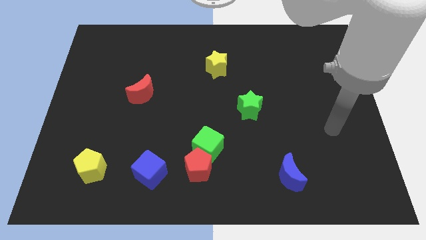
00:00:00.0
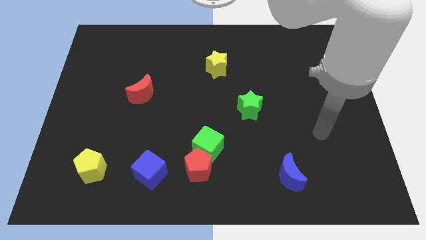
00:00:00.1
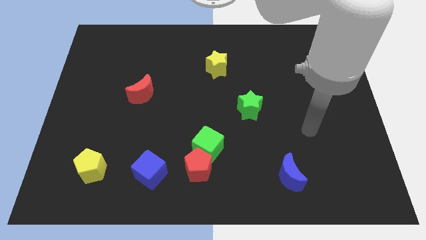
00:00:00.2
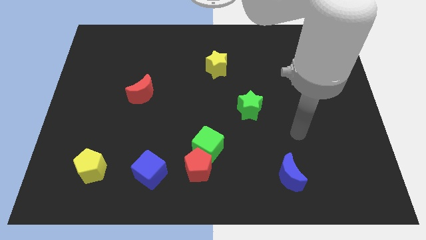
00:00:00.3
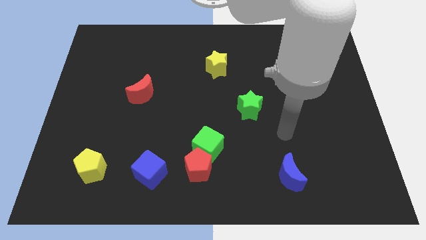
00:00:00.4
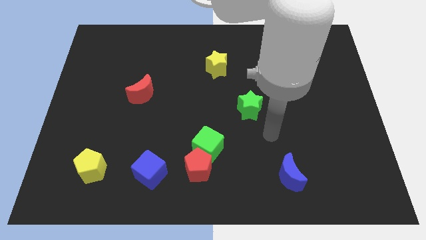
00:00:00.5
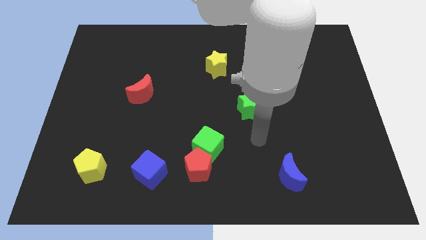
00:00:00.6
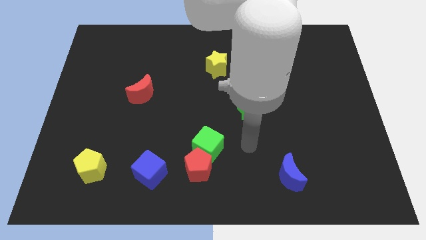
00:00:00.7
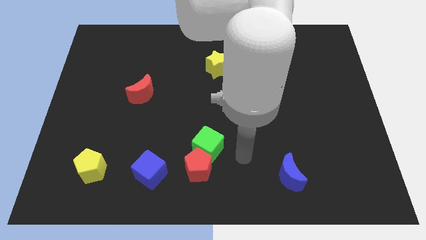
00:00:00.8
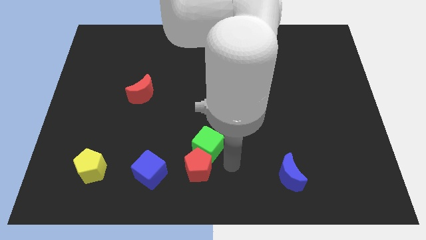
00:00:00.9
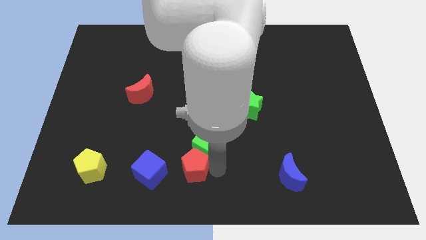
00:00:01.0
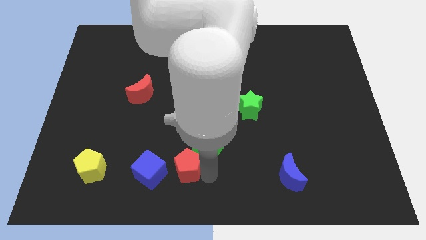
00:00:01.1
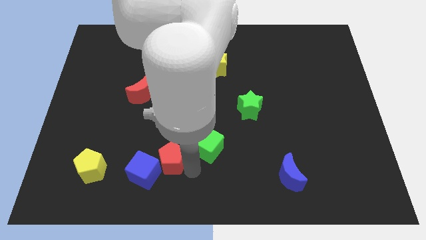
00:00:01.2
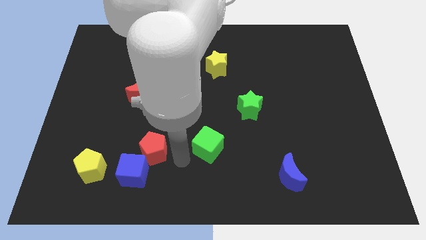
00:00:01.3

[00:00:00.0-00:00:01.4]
pull the green cube apart from the red pentagon

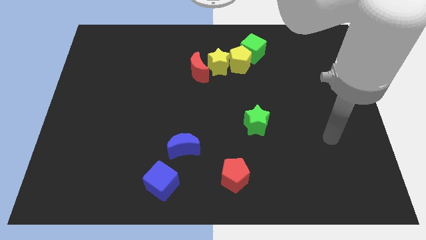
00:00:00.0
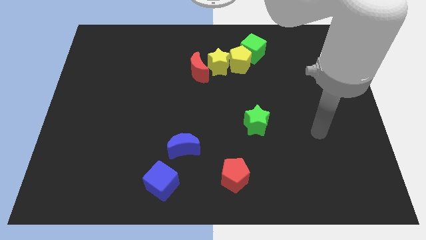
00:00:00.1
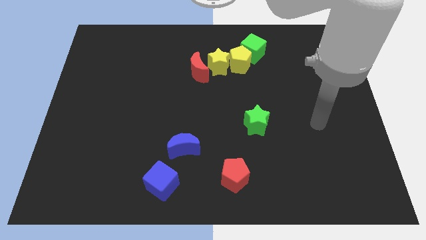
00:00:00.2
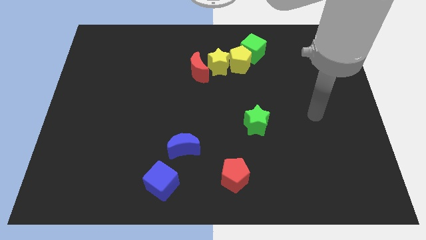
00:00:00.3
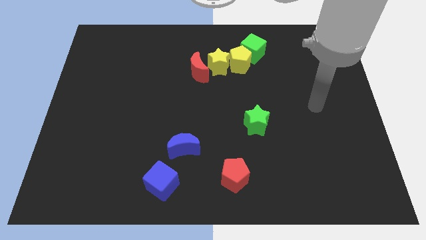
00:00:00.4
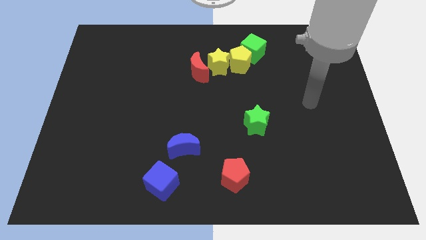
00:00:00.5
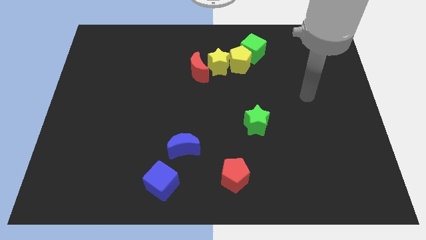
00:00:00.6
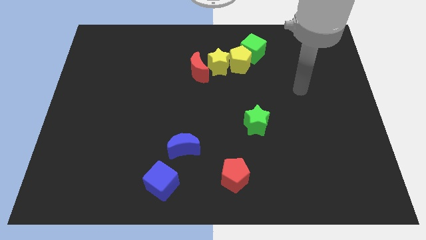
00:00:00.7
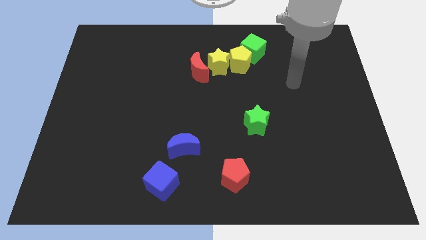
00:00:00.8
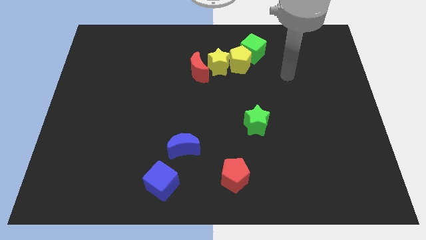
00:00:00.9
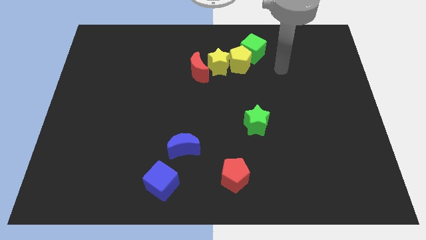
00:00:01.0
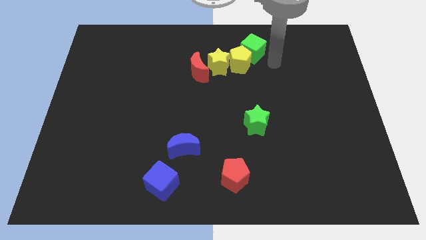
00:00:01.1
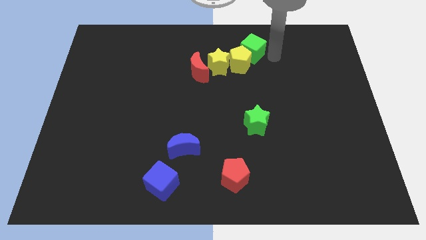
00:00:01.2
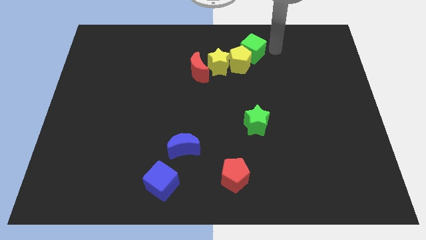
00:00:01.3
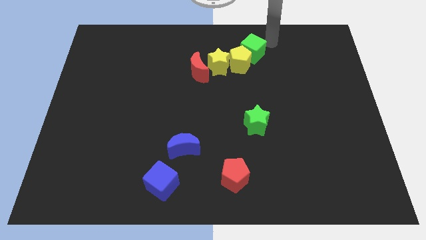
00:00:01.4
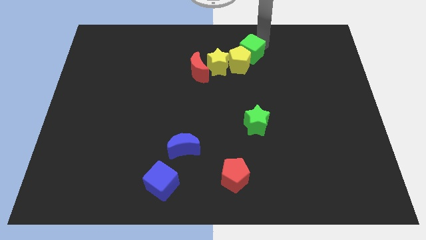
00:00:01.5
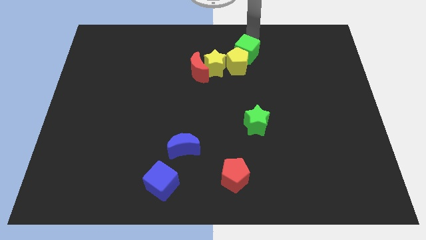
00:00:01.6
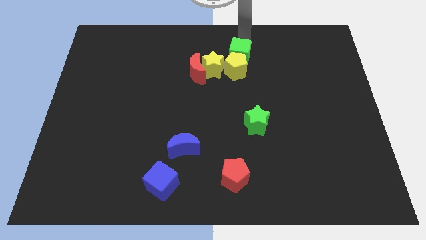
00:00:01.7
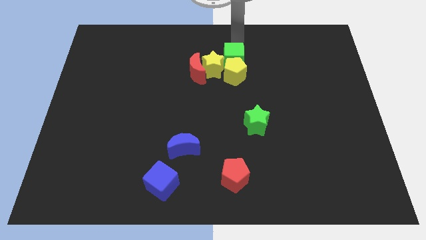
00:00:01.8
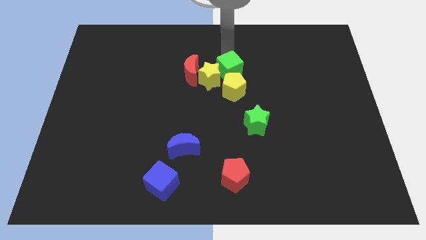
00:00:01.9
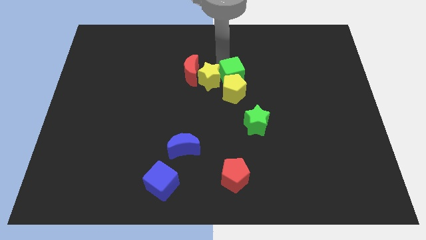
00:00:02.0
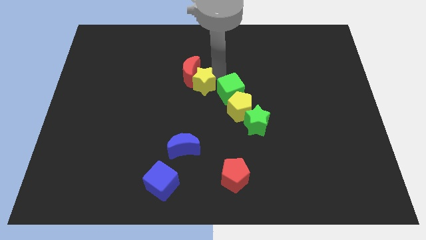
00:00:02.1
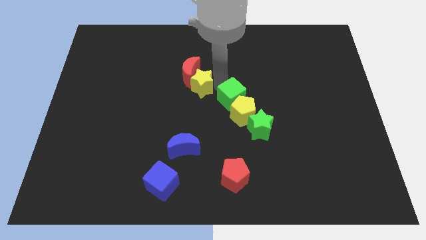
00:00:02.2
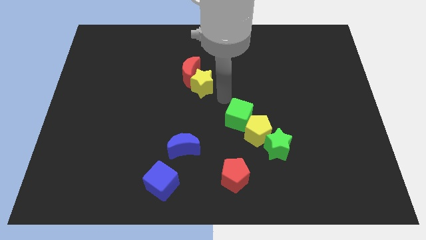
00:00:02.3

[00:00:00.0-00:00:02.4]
pull the yellow pentagon apart from the yellow star and green cube

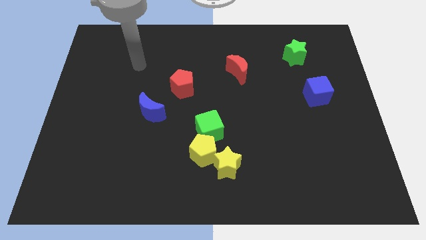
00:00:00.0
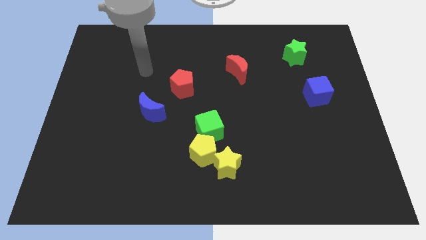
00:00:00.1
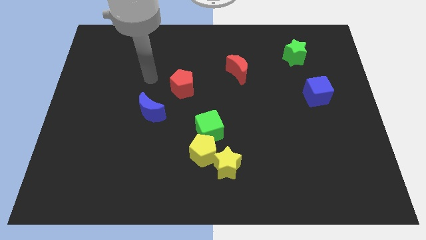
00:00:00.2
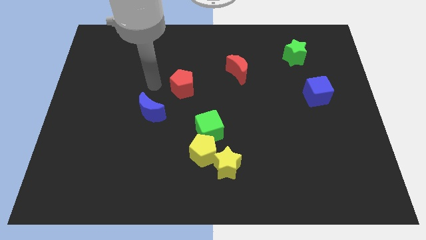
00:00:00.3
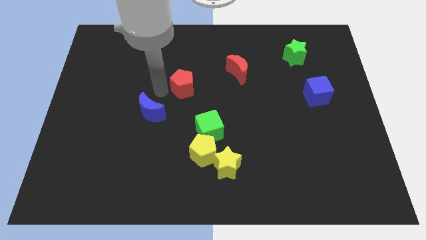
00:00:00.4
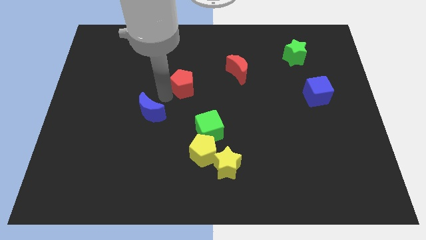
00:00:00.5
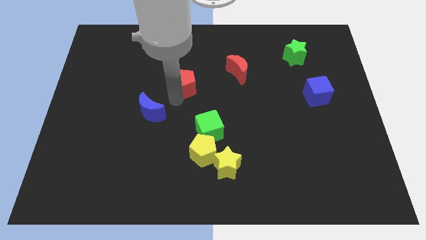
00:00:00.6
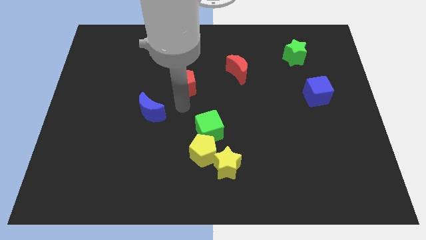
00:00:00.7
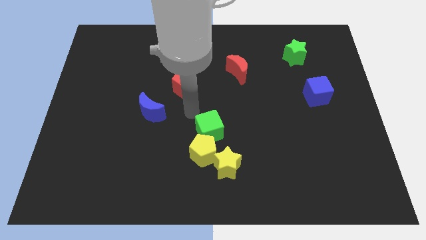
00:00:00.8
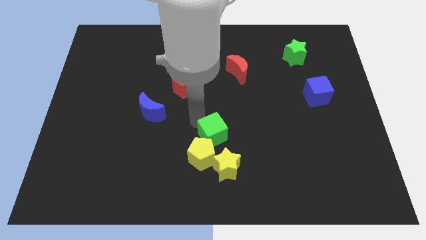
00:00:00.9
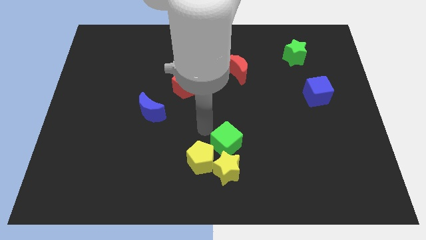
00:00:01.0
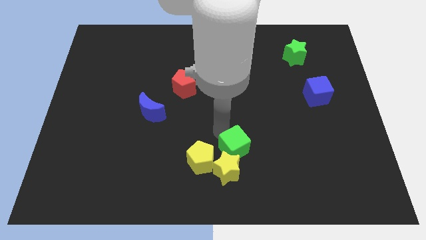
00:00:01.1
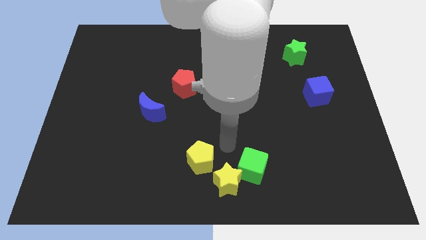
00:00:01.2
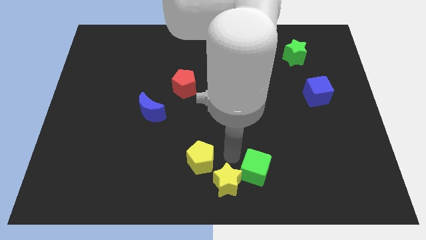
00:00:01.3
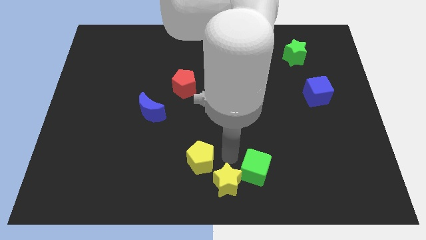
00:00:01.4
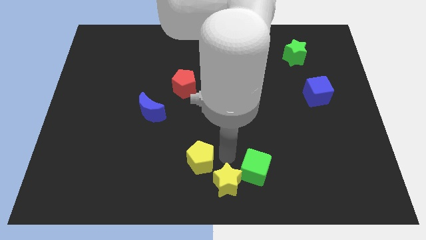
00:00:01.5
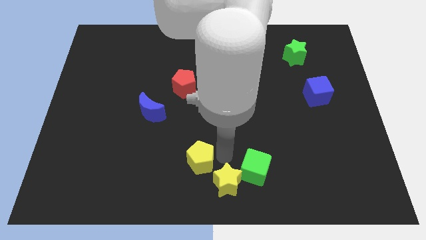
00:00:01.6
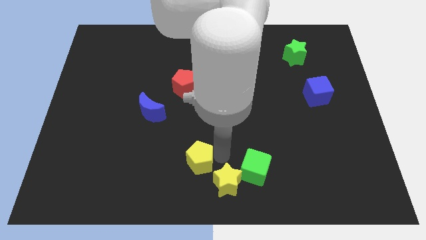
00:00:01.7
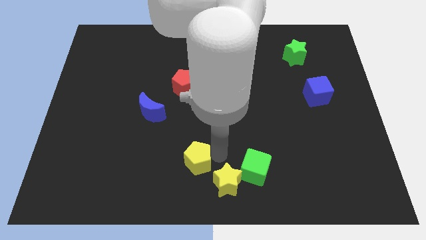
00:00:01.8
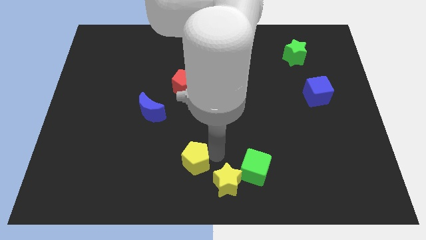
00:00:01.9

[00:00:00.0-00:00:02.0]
pull the yellow pentagon apart from the green cube and yellow star

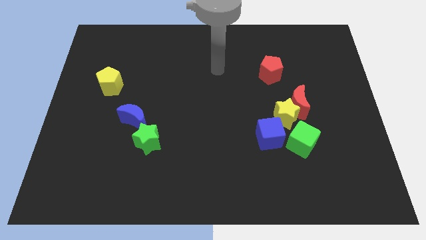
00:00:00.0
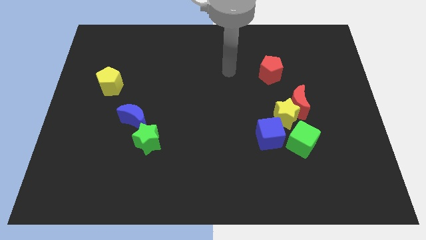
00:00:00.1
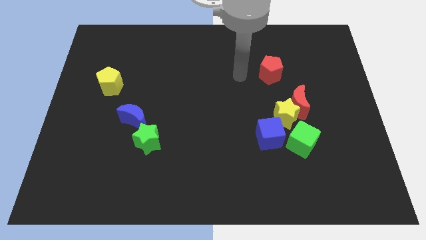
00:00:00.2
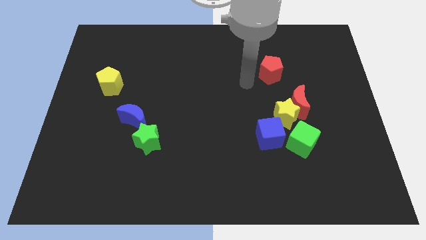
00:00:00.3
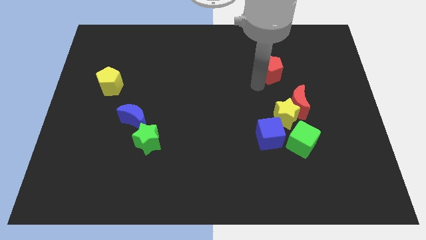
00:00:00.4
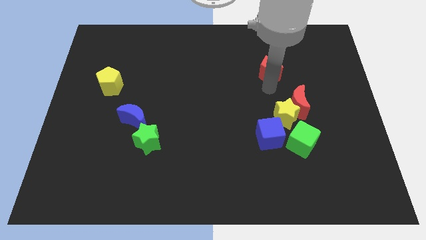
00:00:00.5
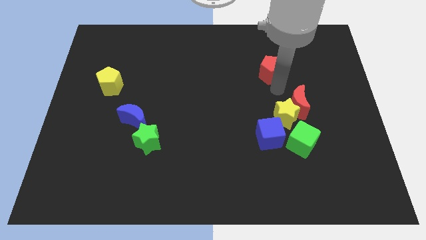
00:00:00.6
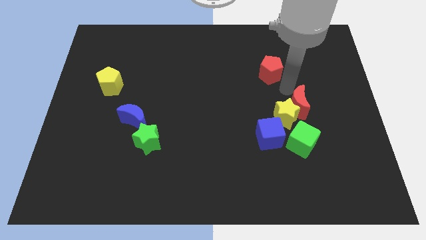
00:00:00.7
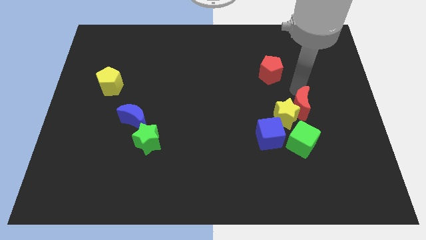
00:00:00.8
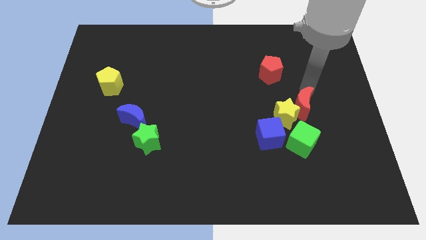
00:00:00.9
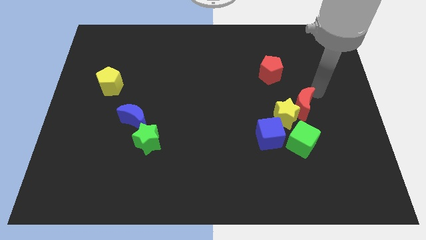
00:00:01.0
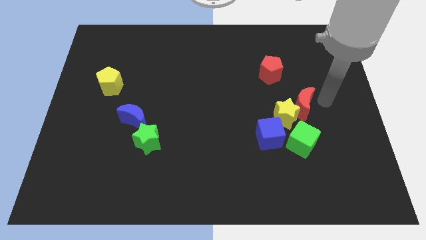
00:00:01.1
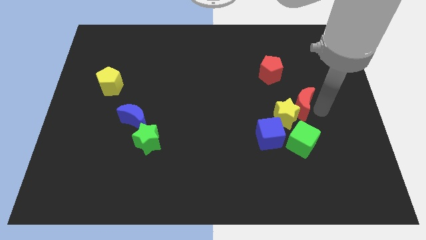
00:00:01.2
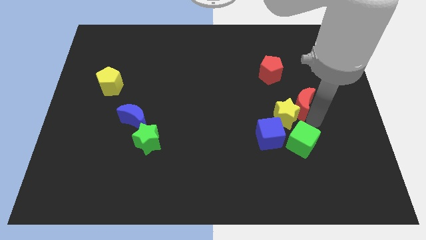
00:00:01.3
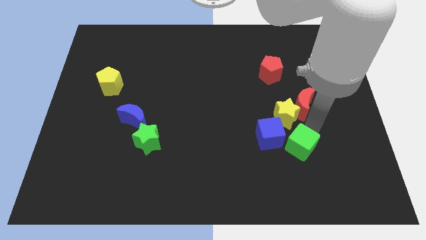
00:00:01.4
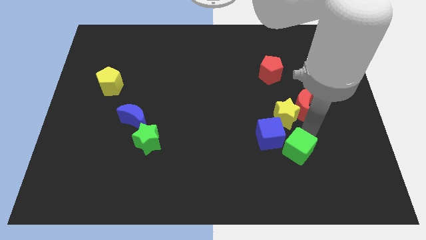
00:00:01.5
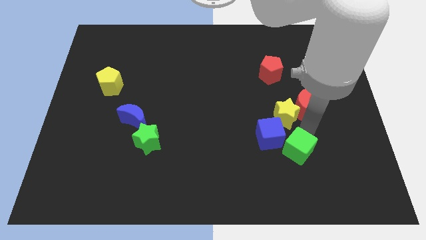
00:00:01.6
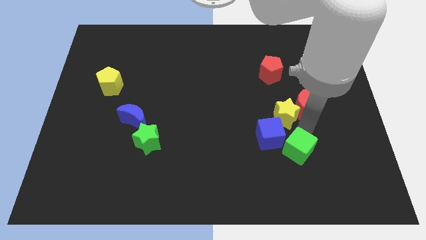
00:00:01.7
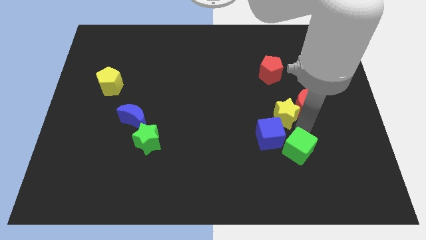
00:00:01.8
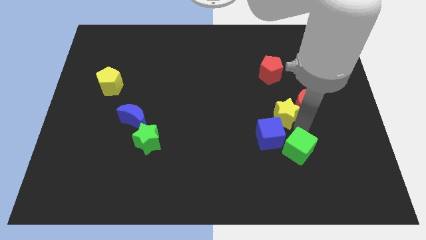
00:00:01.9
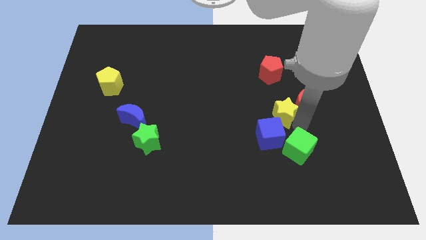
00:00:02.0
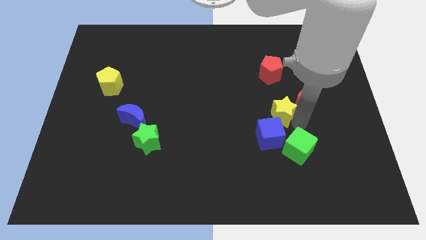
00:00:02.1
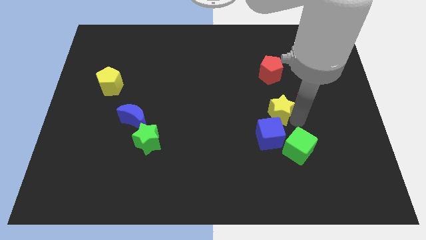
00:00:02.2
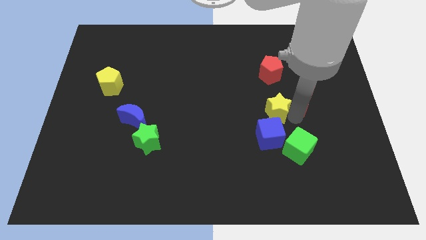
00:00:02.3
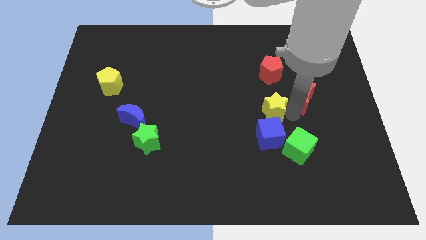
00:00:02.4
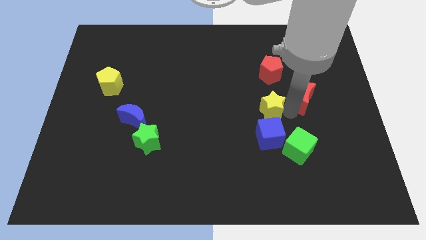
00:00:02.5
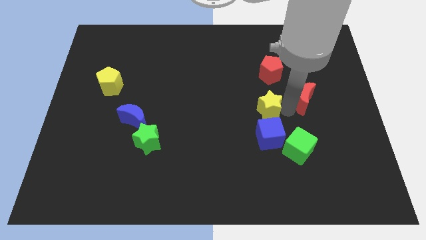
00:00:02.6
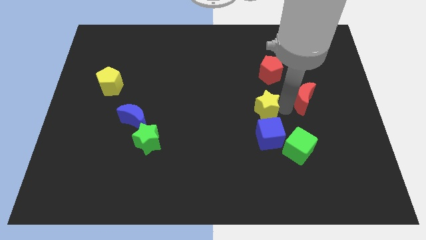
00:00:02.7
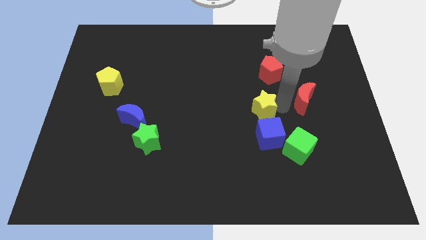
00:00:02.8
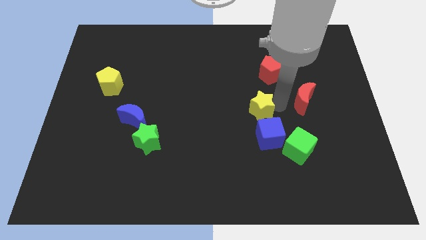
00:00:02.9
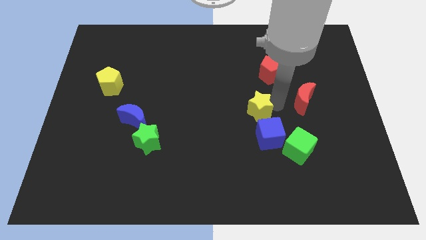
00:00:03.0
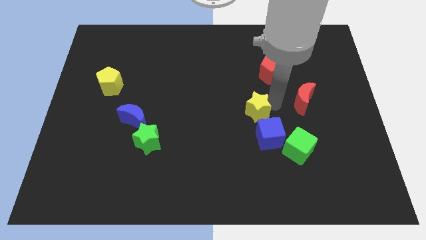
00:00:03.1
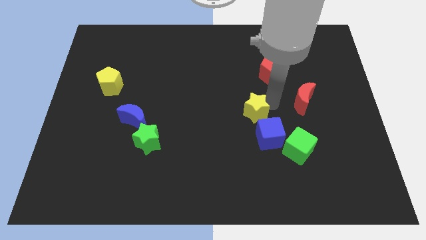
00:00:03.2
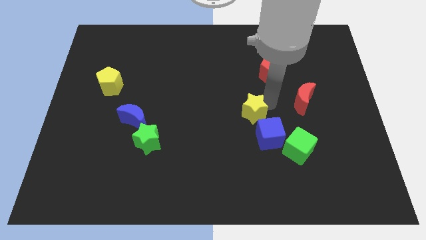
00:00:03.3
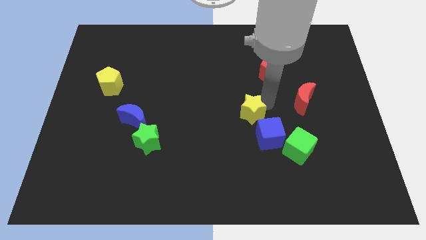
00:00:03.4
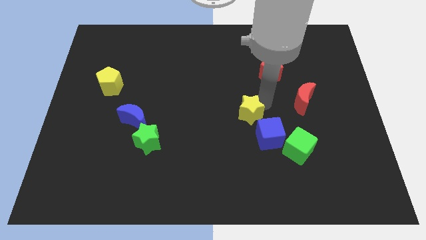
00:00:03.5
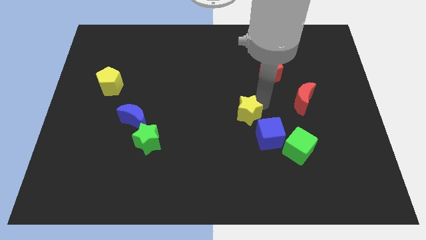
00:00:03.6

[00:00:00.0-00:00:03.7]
separate the yellow star from the red moon, blue cube, and green cube
